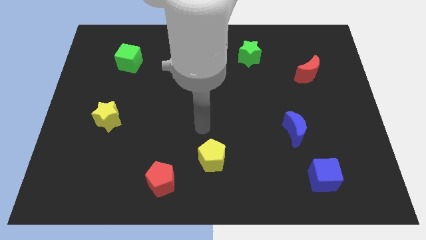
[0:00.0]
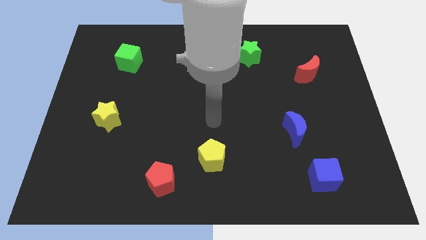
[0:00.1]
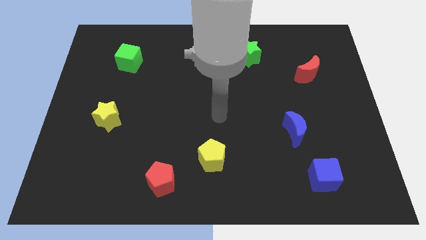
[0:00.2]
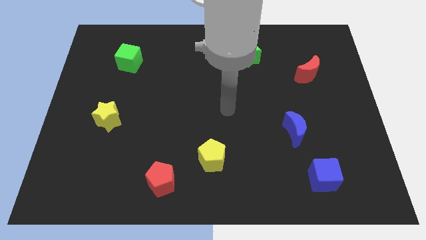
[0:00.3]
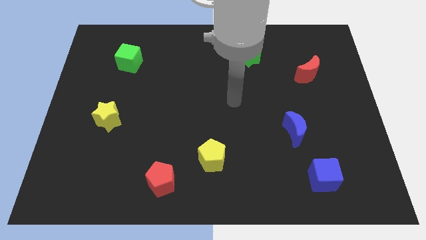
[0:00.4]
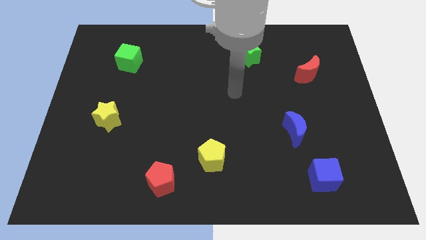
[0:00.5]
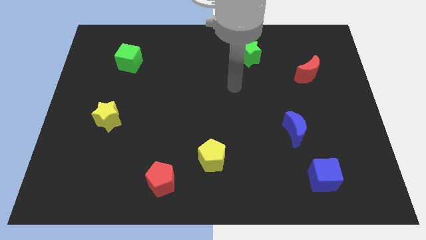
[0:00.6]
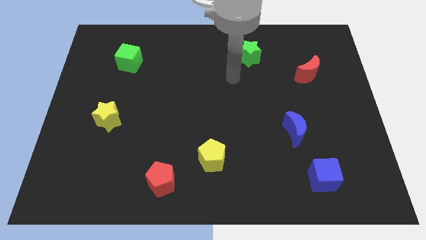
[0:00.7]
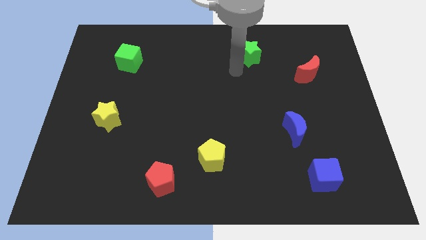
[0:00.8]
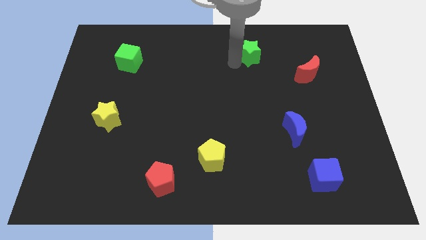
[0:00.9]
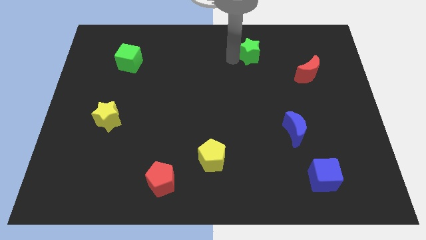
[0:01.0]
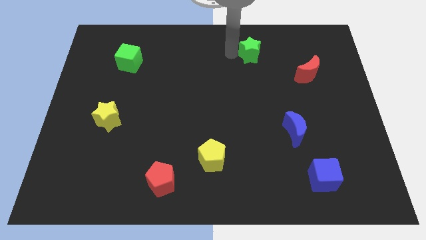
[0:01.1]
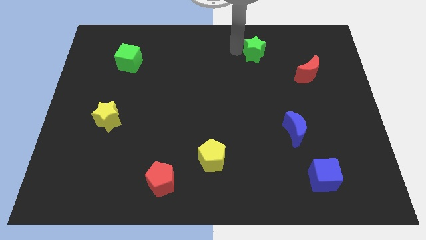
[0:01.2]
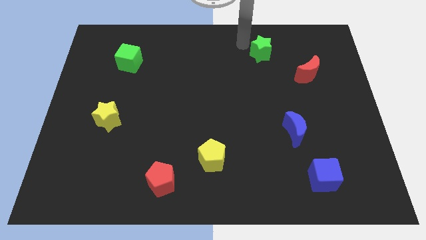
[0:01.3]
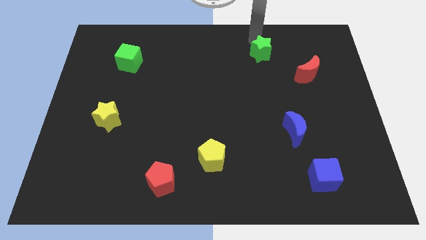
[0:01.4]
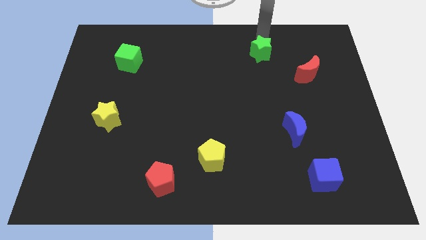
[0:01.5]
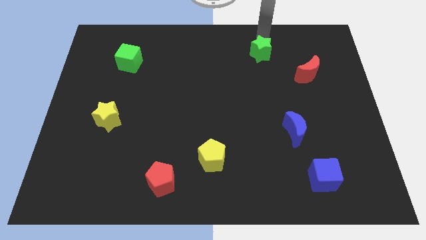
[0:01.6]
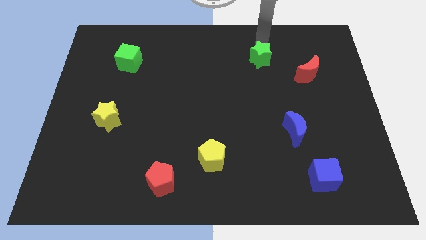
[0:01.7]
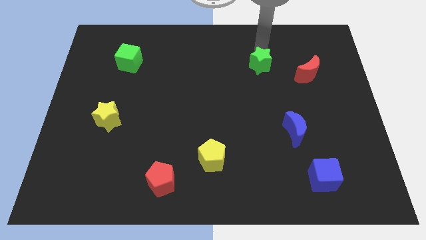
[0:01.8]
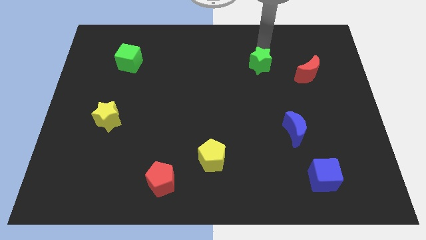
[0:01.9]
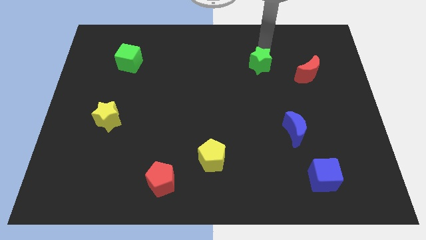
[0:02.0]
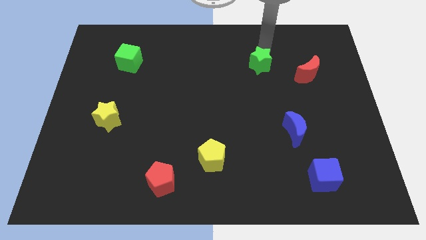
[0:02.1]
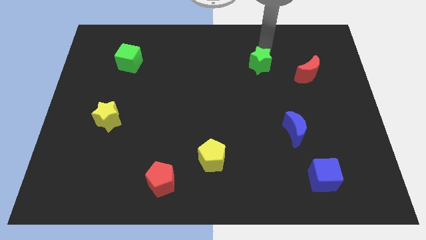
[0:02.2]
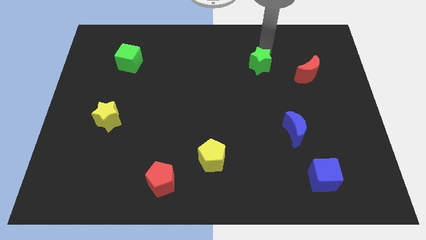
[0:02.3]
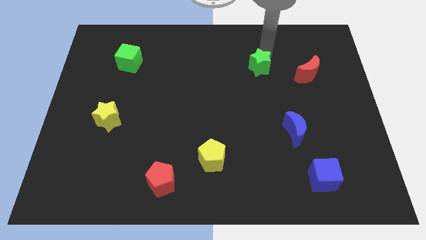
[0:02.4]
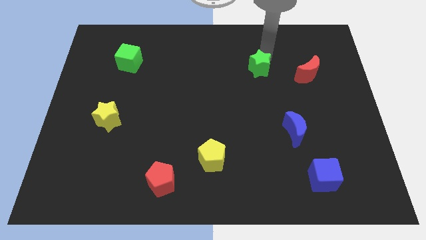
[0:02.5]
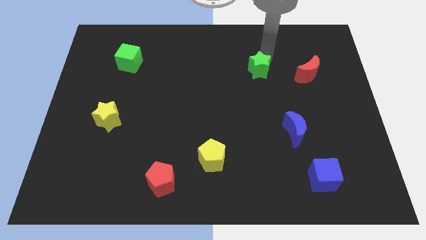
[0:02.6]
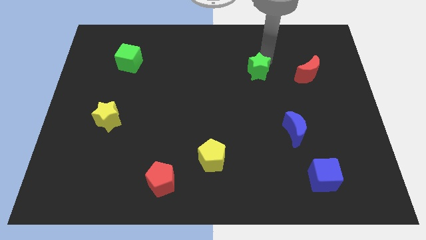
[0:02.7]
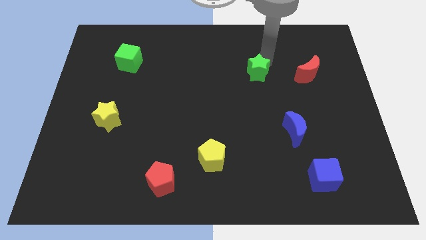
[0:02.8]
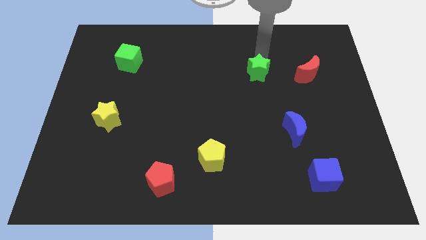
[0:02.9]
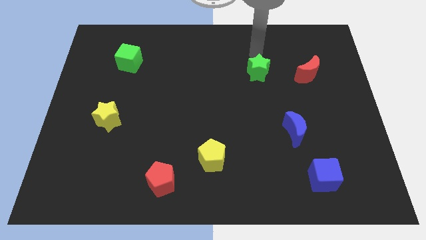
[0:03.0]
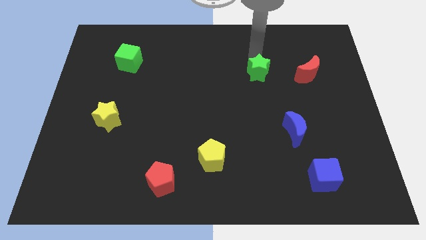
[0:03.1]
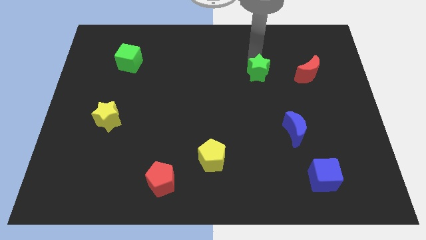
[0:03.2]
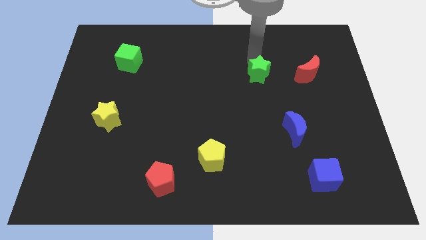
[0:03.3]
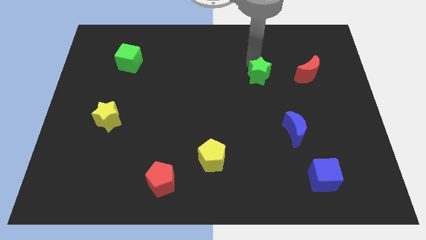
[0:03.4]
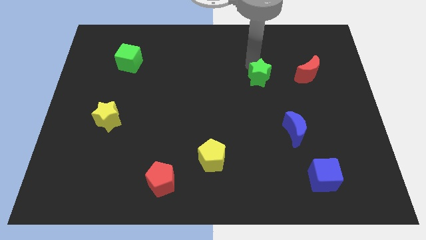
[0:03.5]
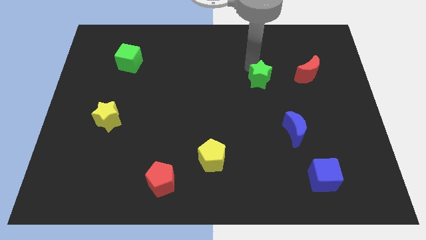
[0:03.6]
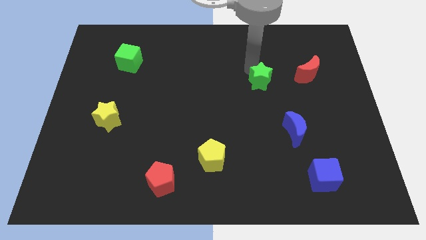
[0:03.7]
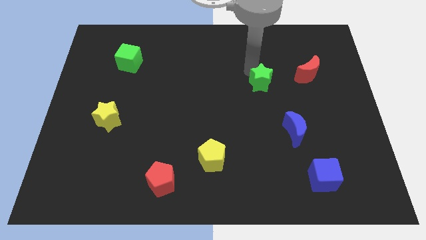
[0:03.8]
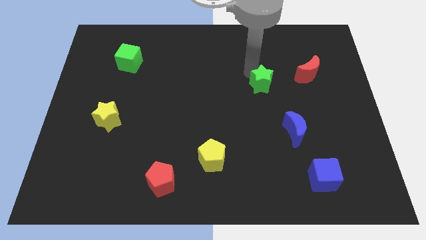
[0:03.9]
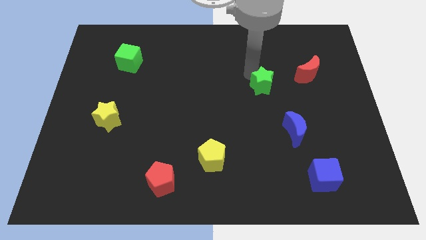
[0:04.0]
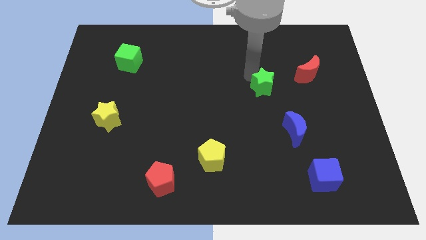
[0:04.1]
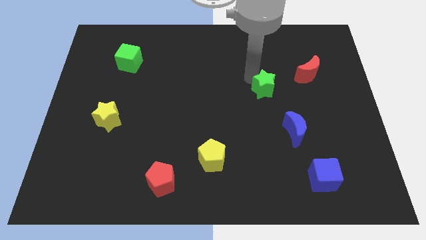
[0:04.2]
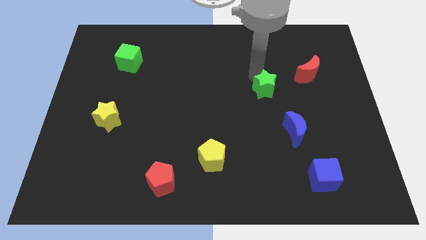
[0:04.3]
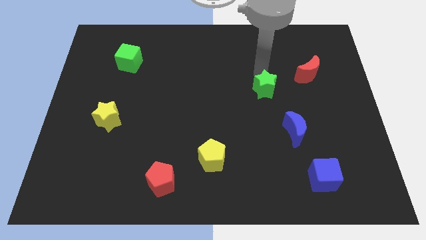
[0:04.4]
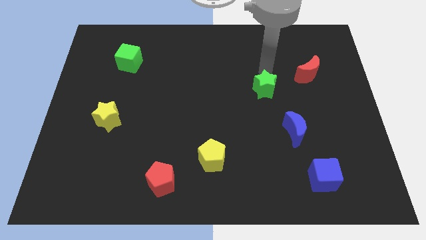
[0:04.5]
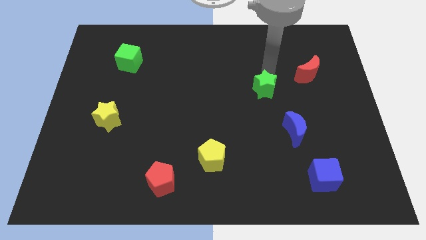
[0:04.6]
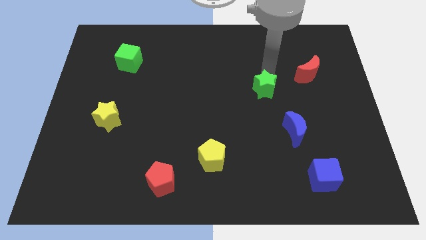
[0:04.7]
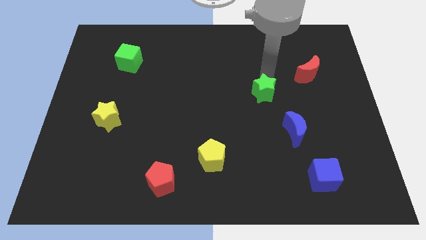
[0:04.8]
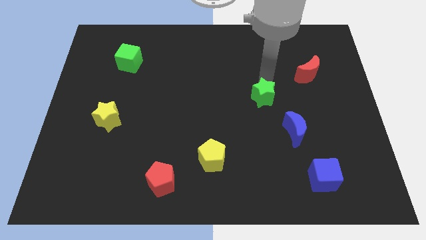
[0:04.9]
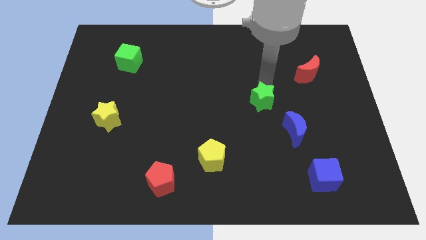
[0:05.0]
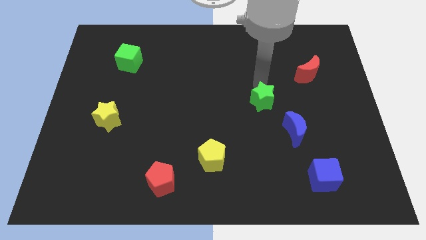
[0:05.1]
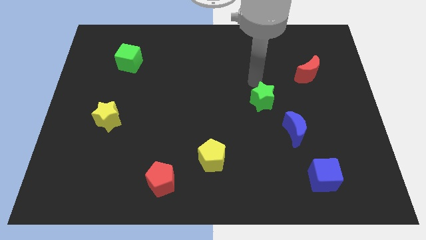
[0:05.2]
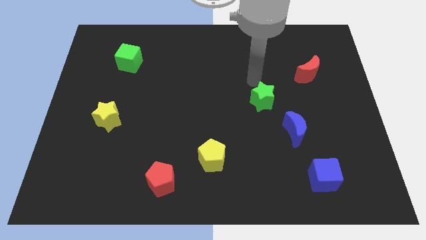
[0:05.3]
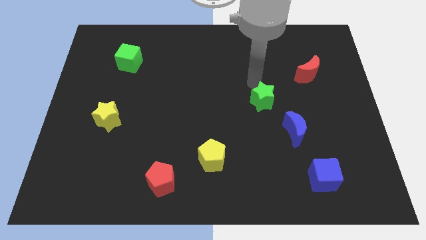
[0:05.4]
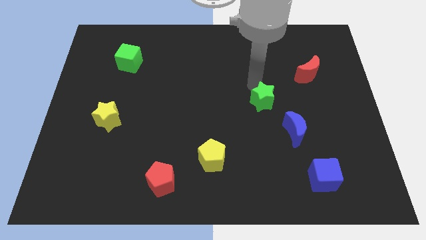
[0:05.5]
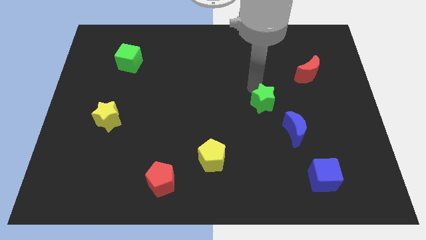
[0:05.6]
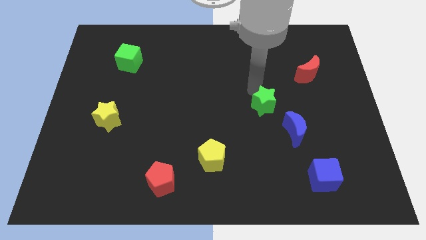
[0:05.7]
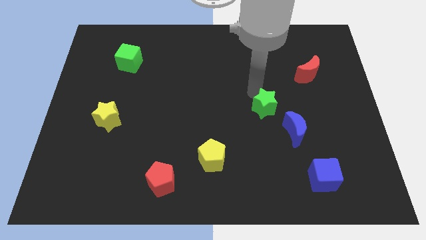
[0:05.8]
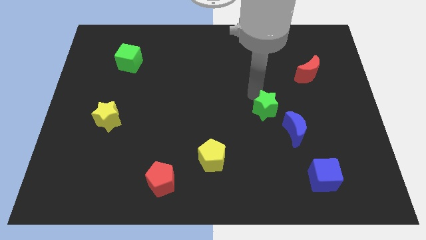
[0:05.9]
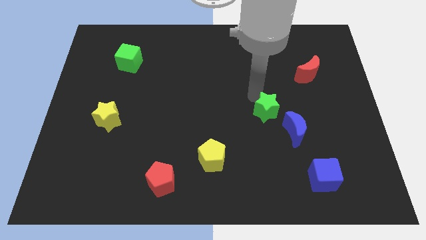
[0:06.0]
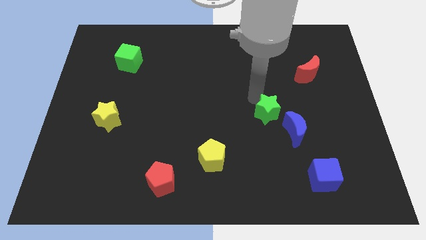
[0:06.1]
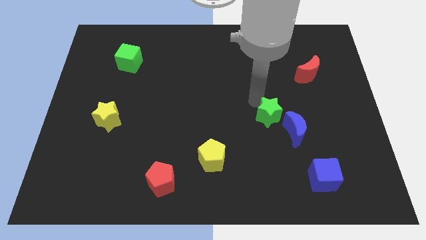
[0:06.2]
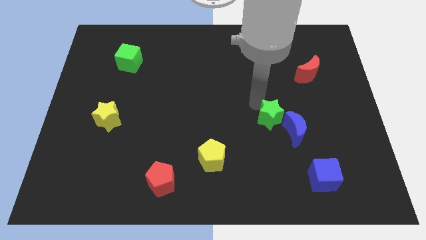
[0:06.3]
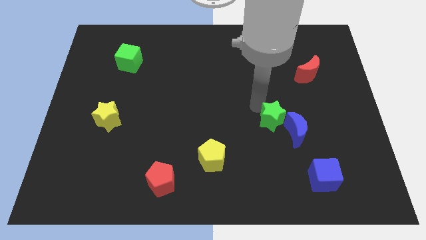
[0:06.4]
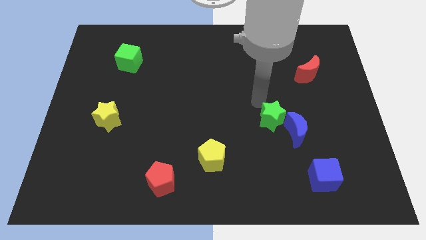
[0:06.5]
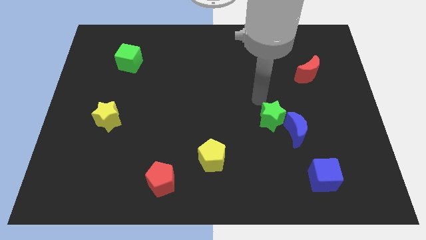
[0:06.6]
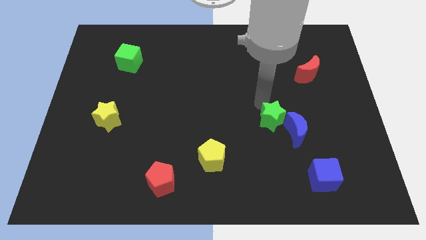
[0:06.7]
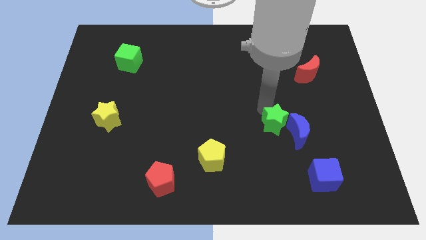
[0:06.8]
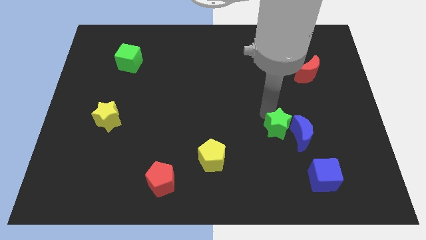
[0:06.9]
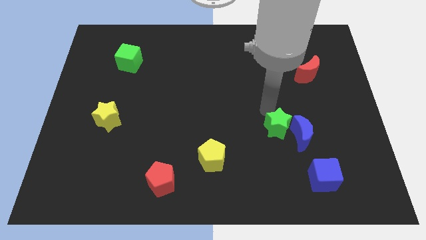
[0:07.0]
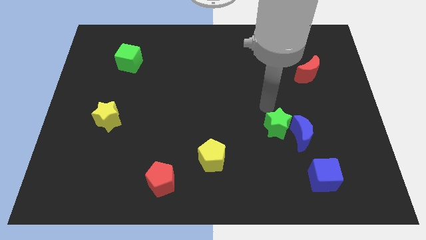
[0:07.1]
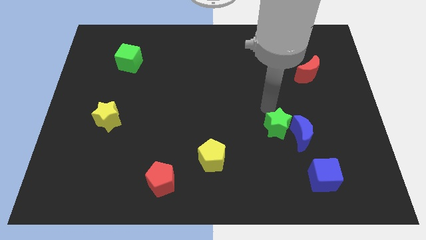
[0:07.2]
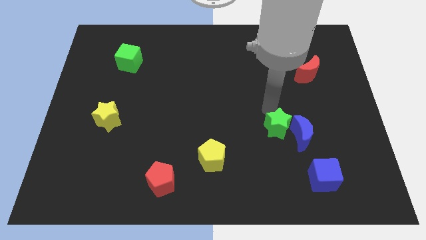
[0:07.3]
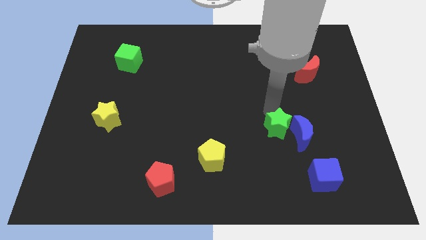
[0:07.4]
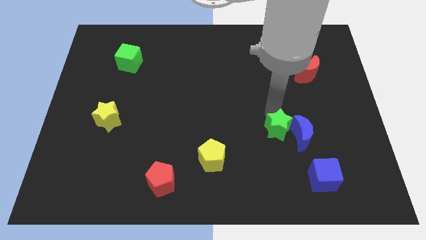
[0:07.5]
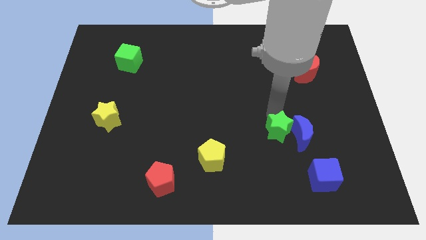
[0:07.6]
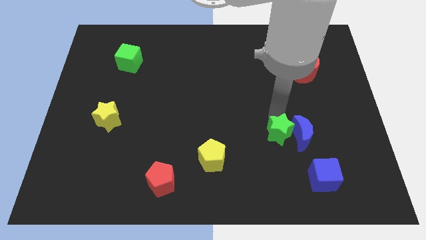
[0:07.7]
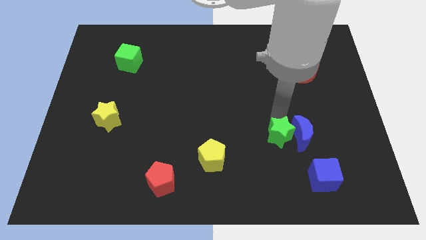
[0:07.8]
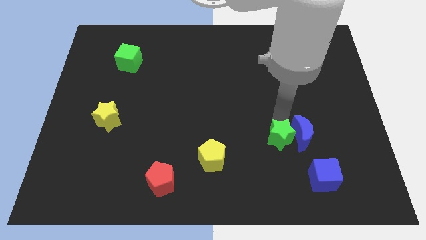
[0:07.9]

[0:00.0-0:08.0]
slide the green star to the top left side of the blue cube
